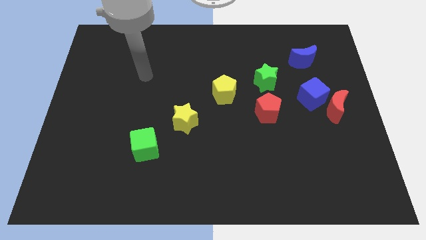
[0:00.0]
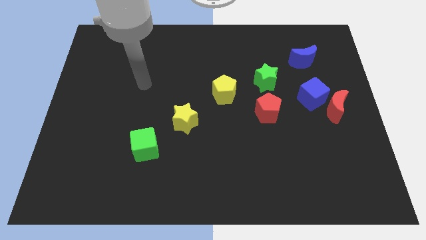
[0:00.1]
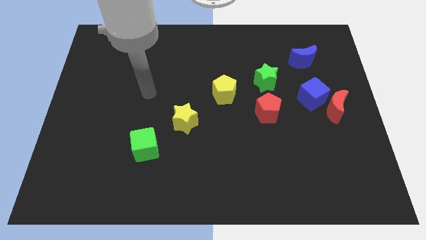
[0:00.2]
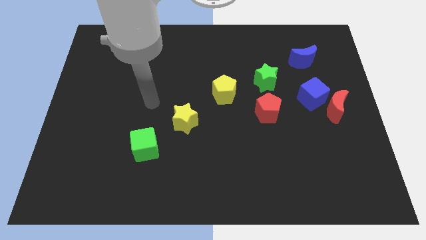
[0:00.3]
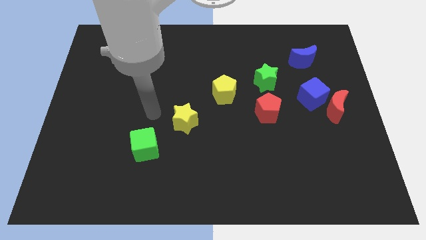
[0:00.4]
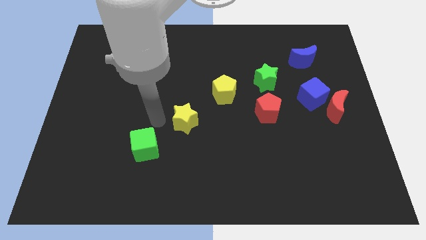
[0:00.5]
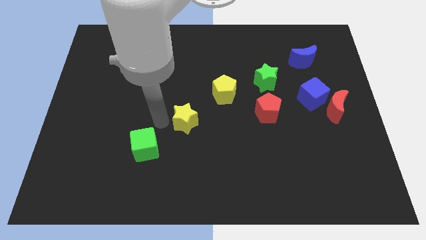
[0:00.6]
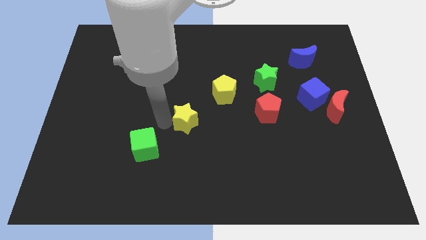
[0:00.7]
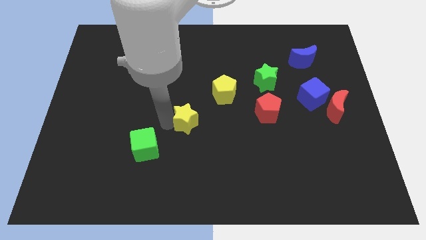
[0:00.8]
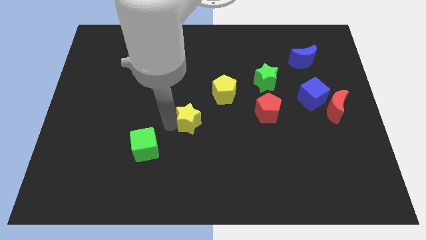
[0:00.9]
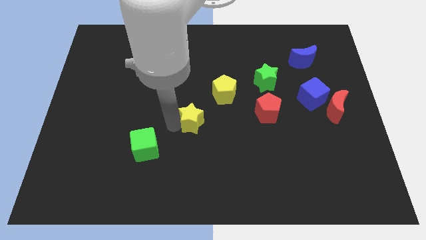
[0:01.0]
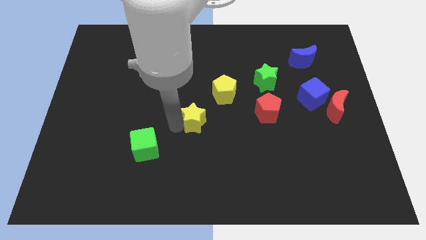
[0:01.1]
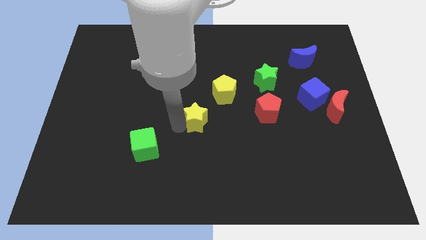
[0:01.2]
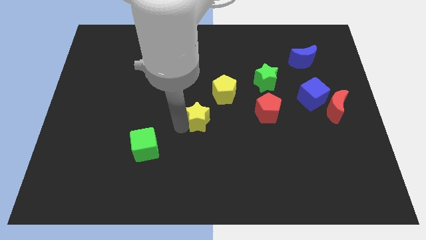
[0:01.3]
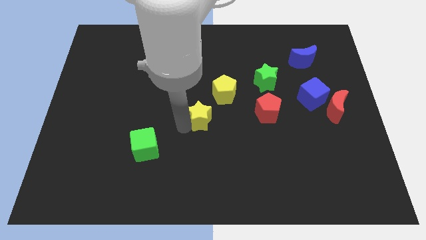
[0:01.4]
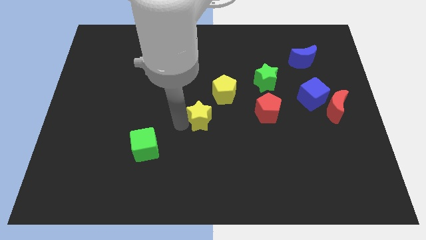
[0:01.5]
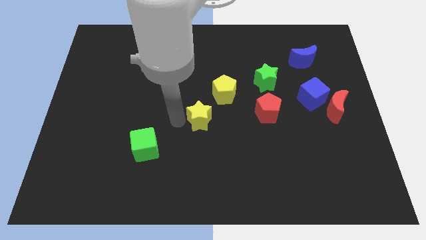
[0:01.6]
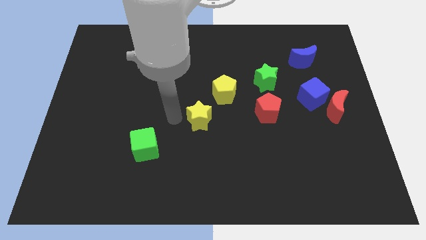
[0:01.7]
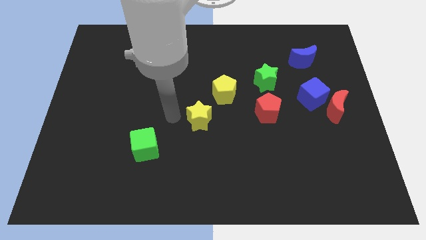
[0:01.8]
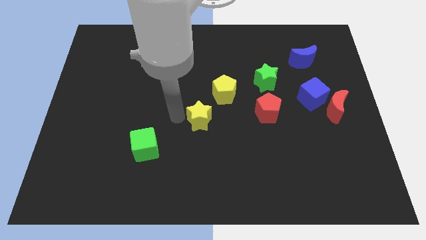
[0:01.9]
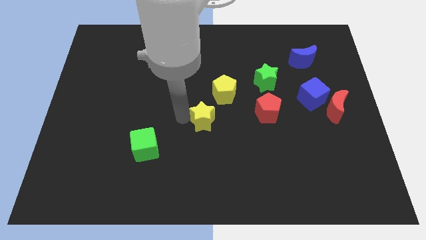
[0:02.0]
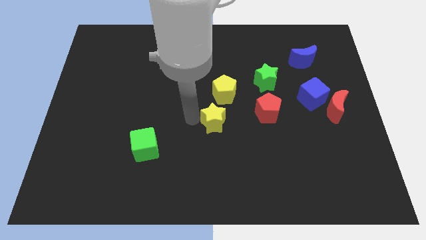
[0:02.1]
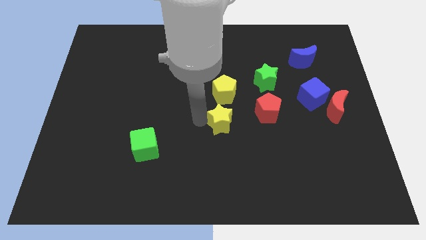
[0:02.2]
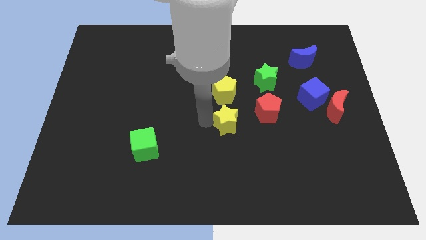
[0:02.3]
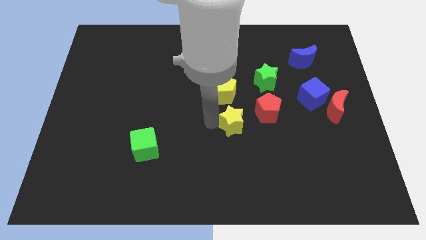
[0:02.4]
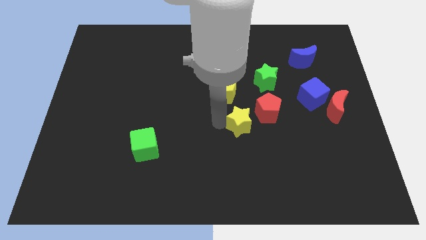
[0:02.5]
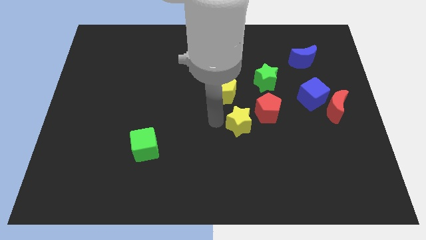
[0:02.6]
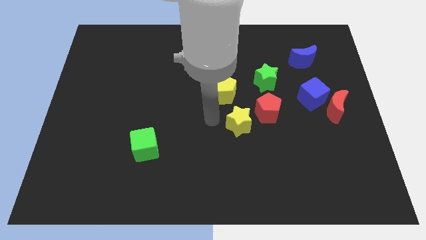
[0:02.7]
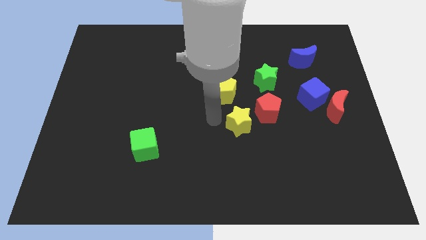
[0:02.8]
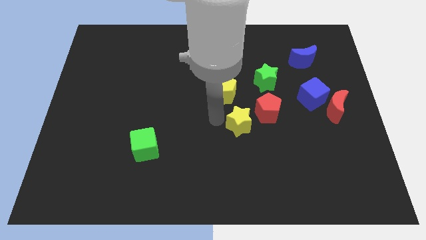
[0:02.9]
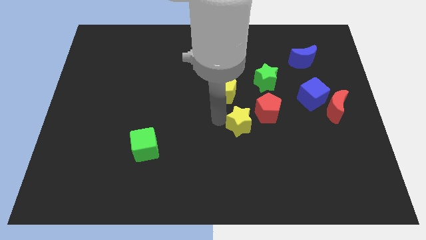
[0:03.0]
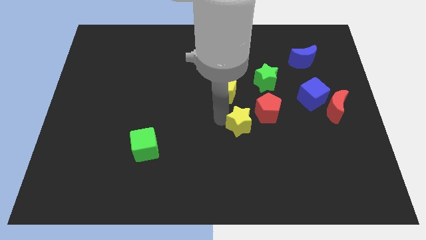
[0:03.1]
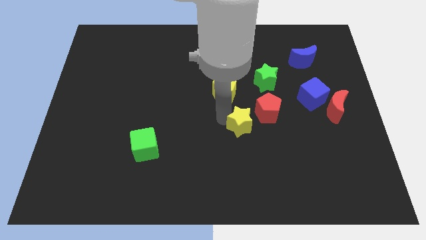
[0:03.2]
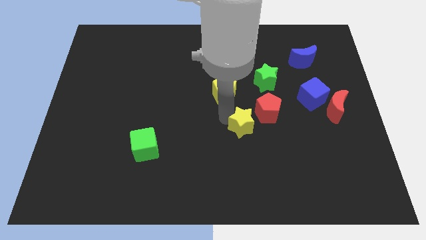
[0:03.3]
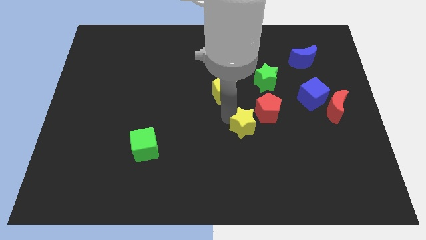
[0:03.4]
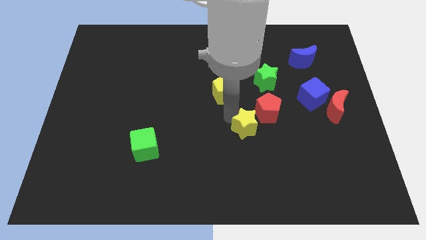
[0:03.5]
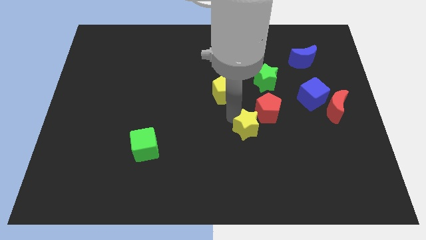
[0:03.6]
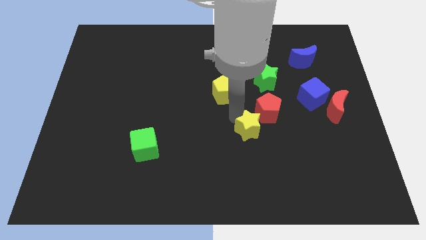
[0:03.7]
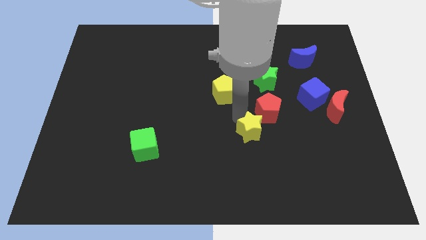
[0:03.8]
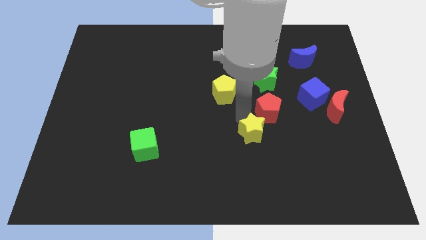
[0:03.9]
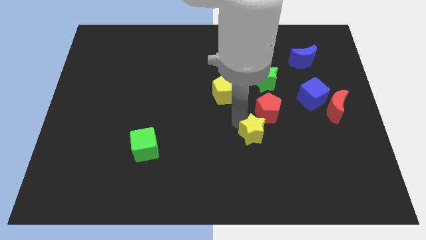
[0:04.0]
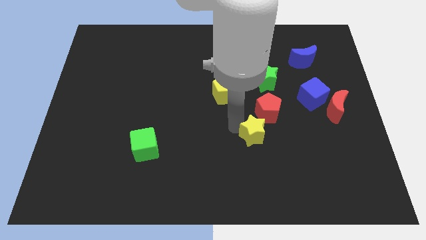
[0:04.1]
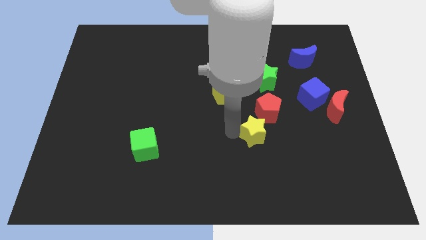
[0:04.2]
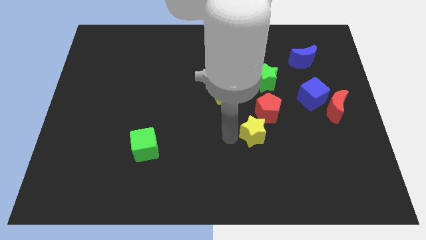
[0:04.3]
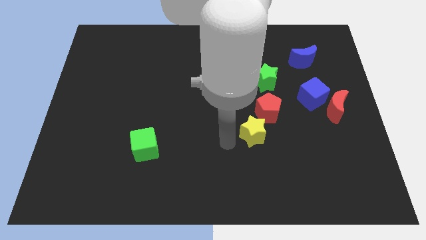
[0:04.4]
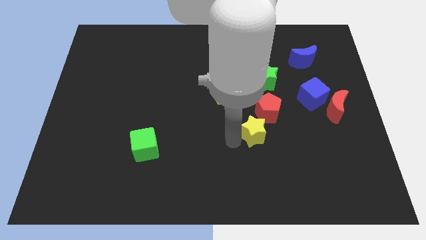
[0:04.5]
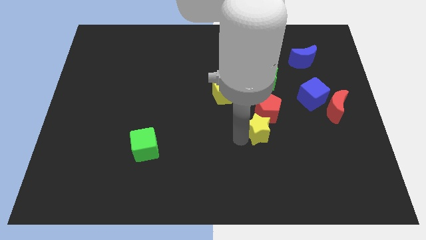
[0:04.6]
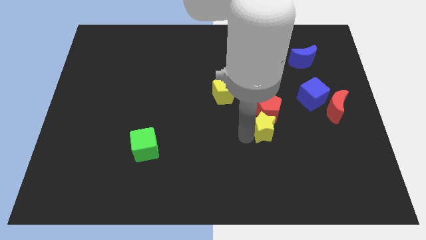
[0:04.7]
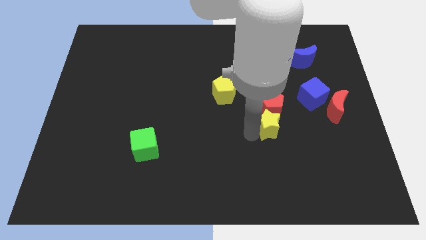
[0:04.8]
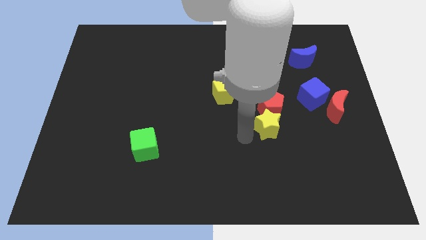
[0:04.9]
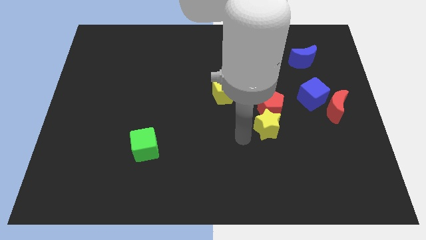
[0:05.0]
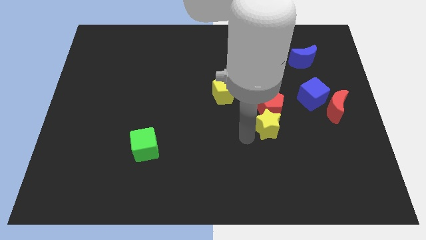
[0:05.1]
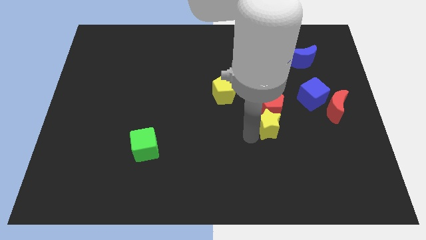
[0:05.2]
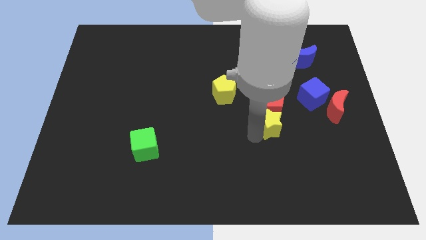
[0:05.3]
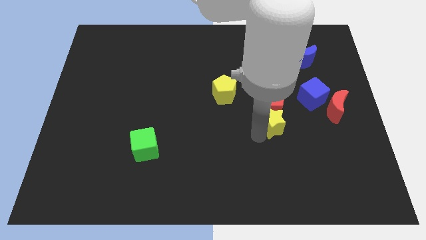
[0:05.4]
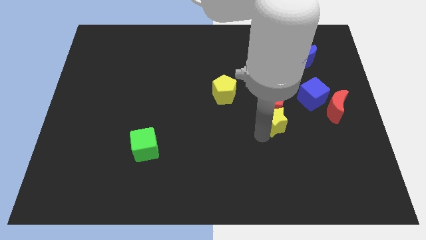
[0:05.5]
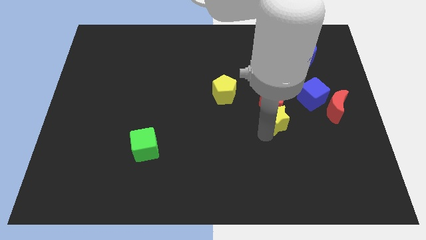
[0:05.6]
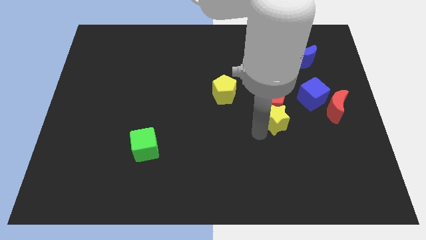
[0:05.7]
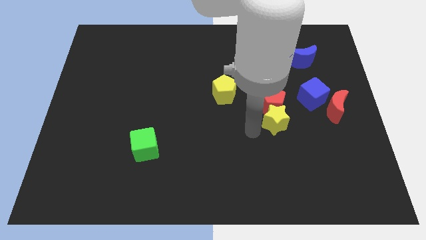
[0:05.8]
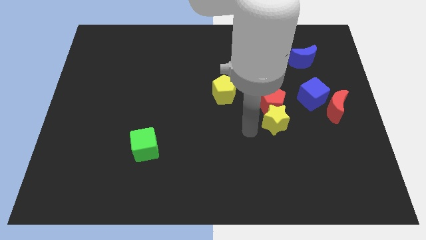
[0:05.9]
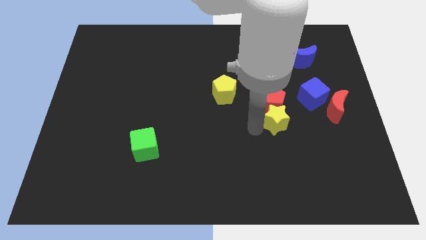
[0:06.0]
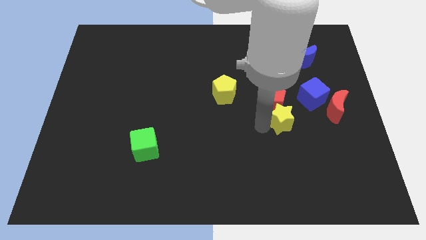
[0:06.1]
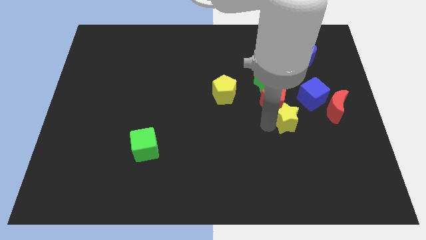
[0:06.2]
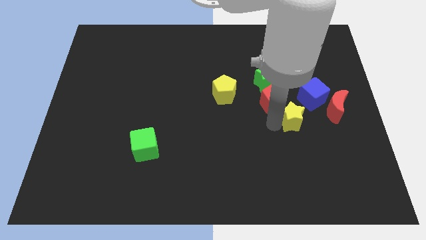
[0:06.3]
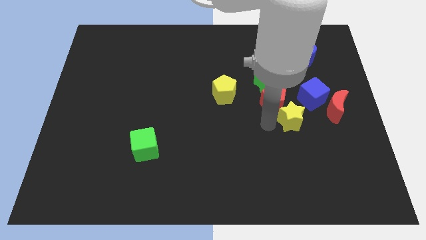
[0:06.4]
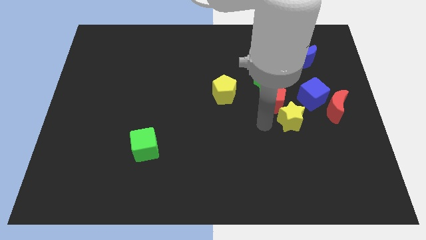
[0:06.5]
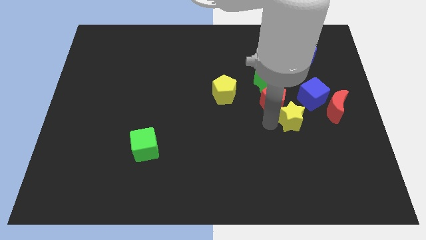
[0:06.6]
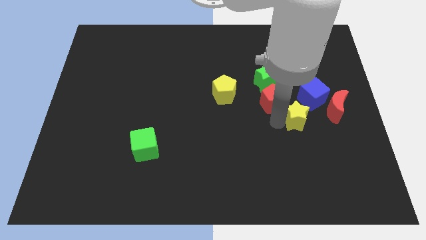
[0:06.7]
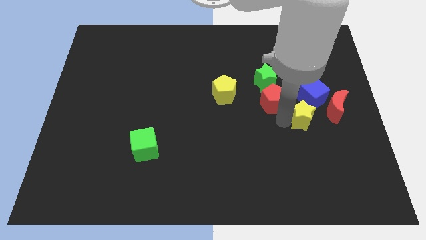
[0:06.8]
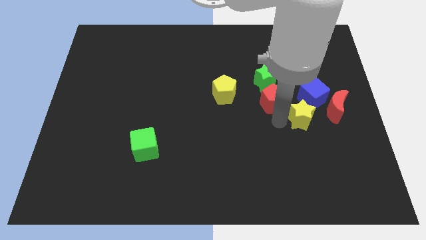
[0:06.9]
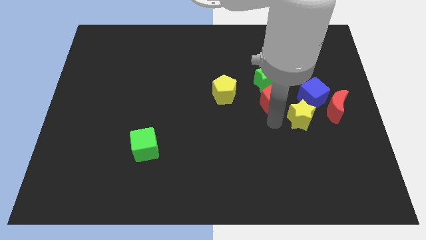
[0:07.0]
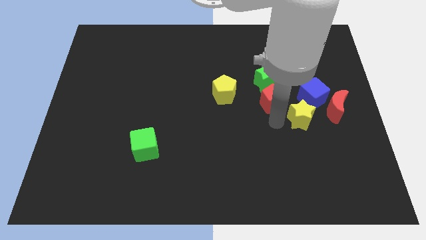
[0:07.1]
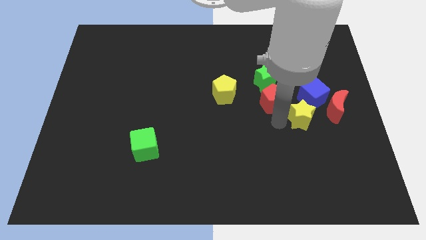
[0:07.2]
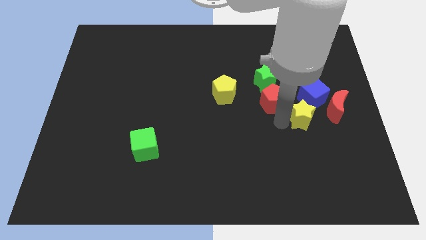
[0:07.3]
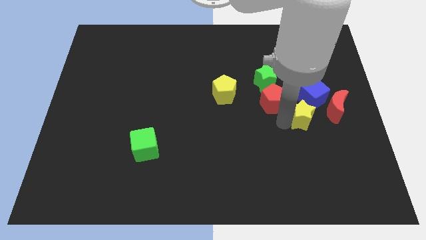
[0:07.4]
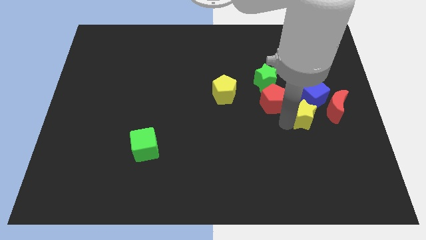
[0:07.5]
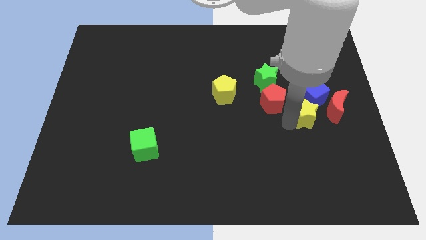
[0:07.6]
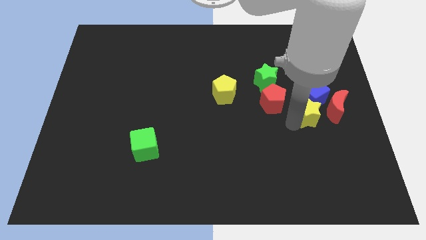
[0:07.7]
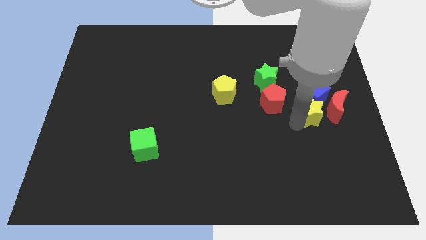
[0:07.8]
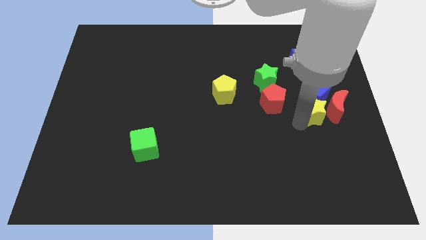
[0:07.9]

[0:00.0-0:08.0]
move the yellow star to the red moon
